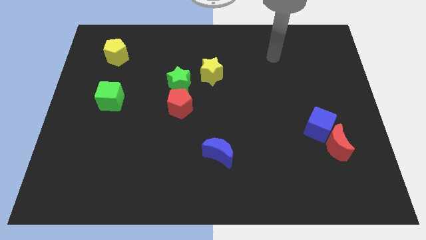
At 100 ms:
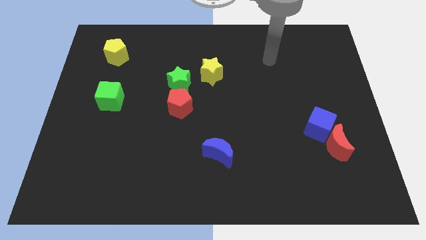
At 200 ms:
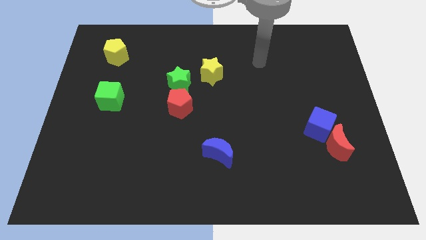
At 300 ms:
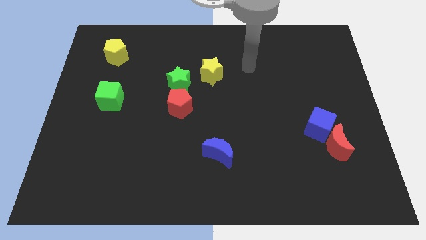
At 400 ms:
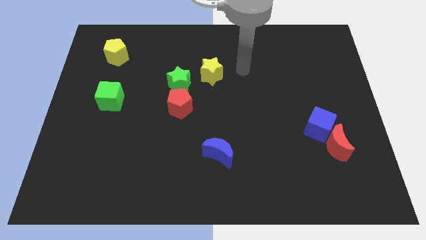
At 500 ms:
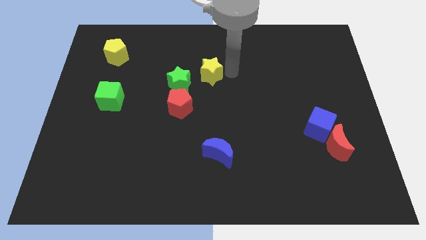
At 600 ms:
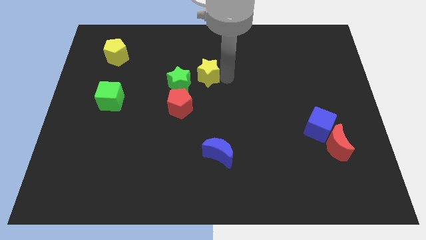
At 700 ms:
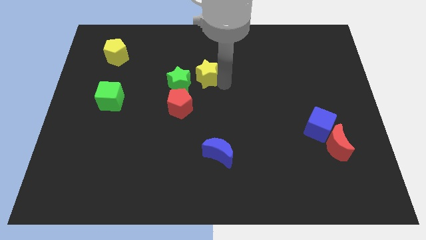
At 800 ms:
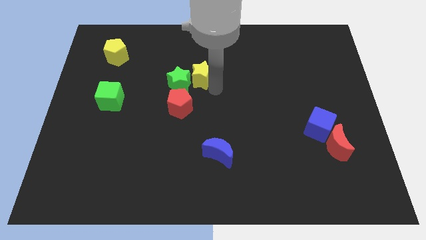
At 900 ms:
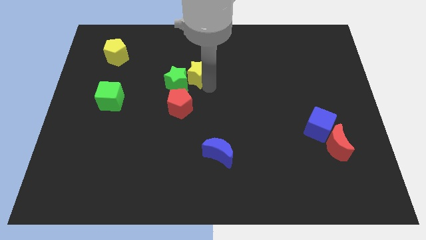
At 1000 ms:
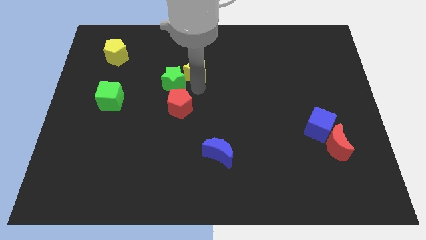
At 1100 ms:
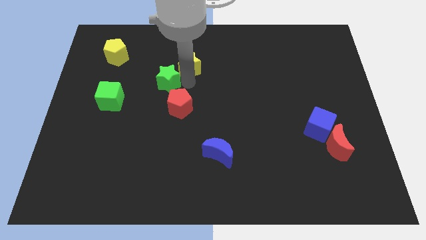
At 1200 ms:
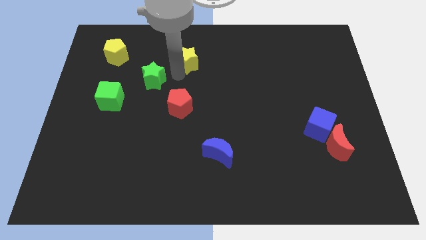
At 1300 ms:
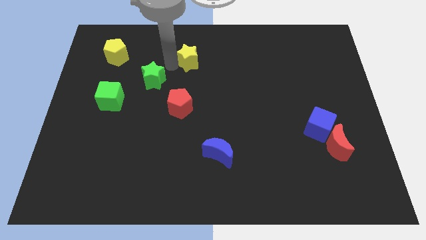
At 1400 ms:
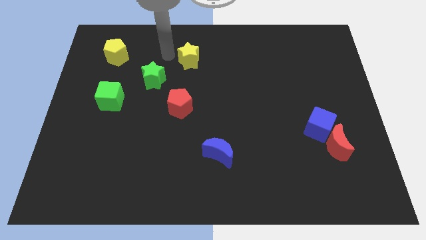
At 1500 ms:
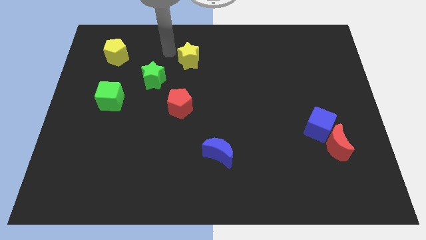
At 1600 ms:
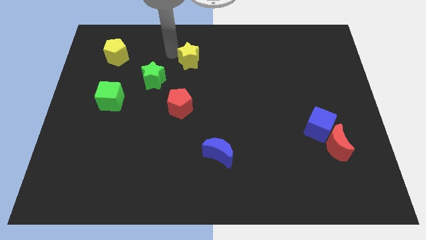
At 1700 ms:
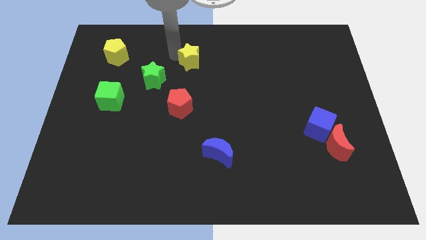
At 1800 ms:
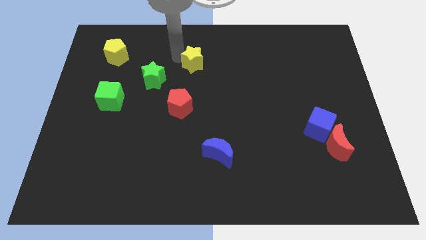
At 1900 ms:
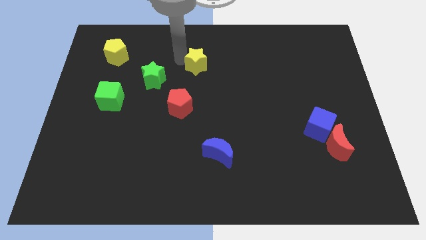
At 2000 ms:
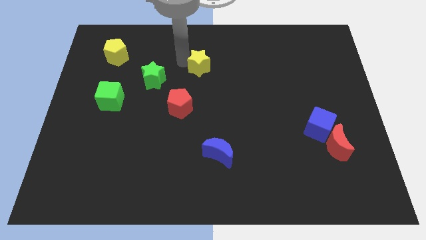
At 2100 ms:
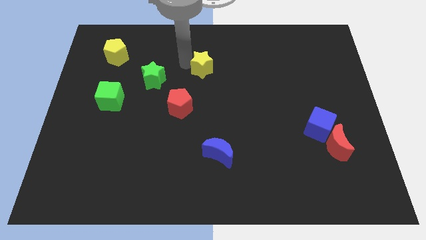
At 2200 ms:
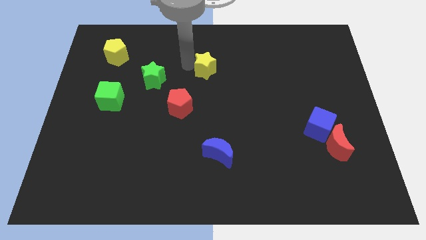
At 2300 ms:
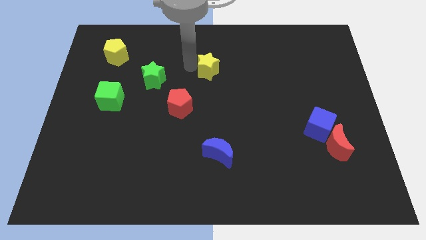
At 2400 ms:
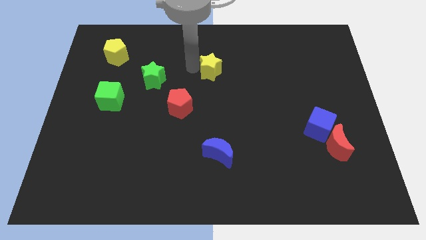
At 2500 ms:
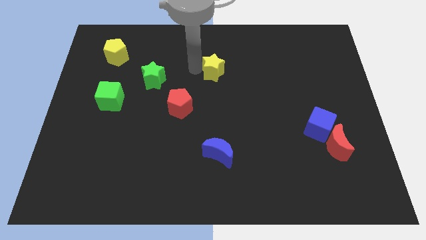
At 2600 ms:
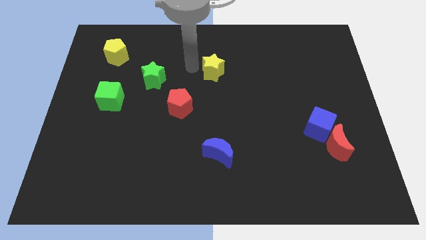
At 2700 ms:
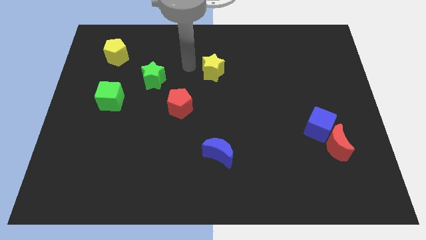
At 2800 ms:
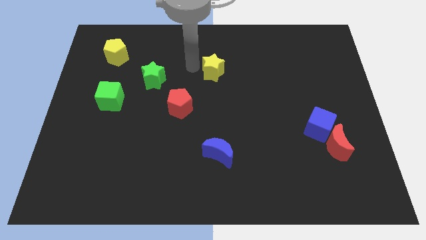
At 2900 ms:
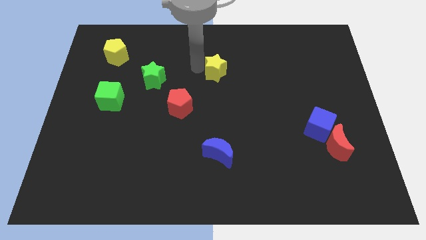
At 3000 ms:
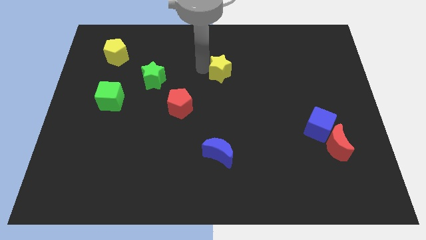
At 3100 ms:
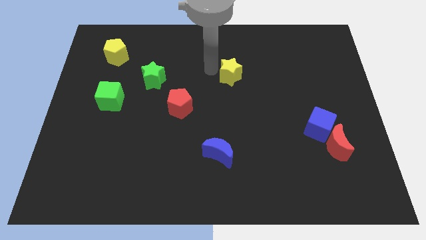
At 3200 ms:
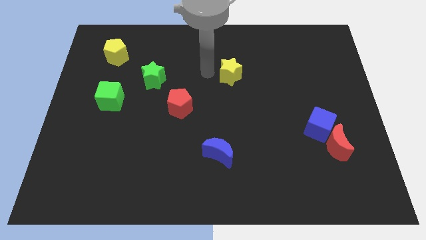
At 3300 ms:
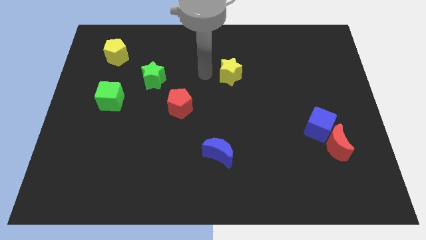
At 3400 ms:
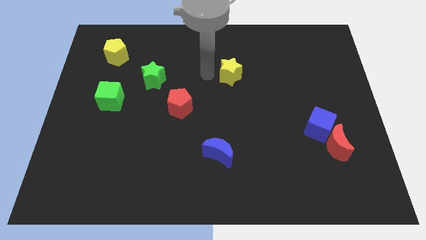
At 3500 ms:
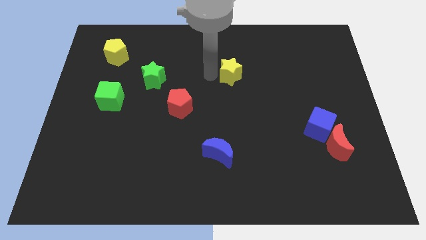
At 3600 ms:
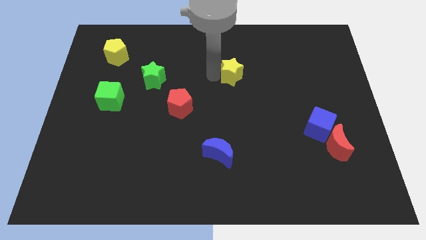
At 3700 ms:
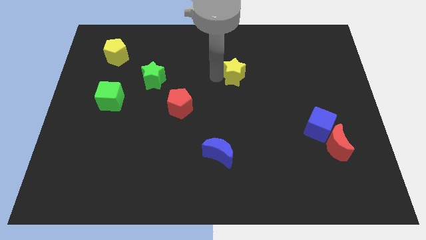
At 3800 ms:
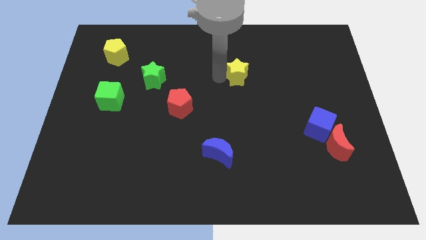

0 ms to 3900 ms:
move the yellow star a little right

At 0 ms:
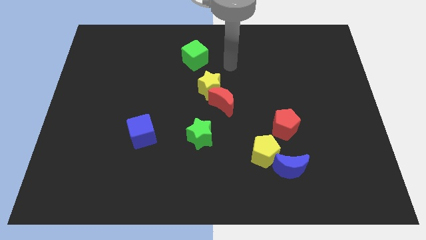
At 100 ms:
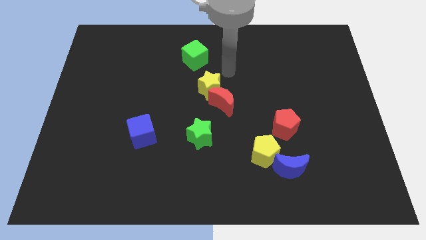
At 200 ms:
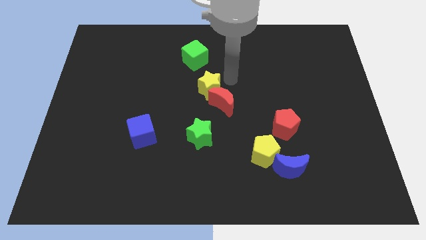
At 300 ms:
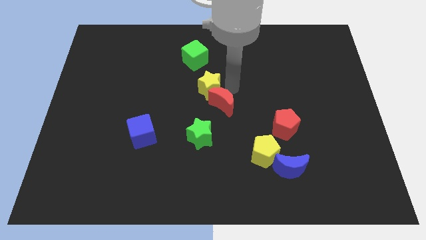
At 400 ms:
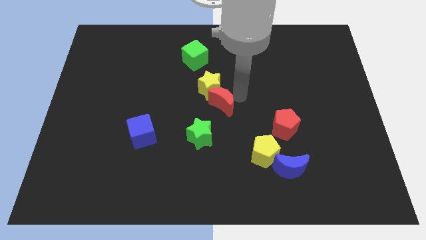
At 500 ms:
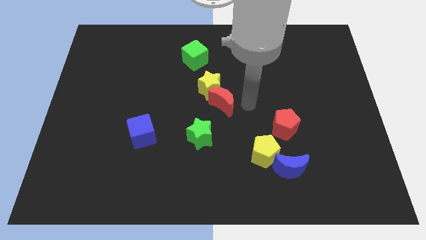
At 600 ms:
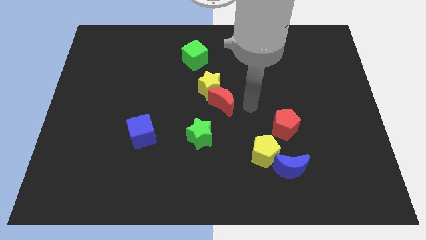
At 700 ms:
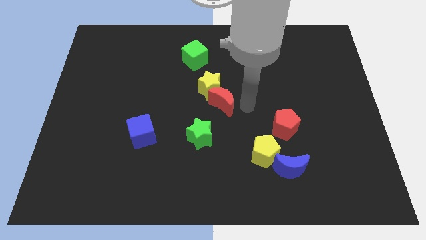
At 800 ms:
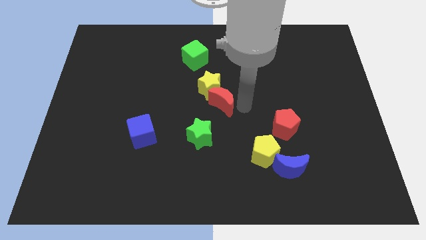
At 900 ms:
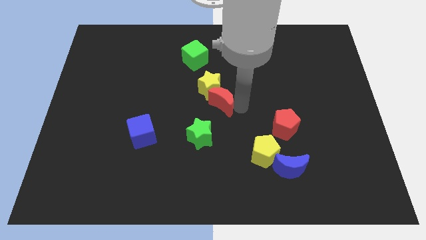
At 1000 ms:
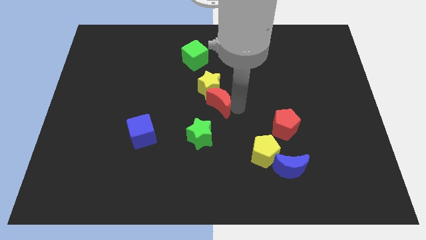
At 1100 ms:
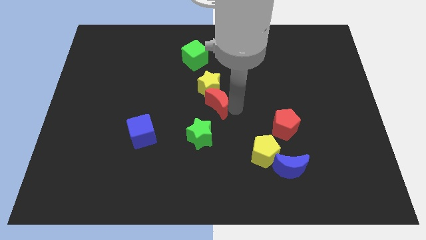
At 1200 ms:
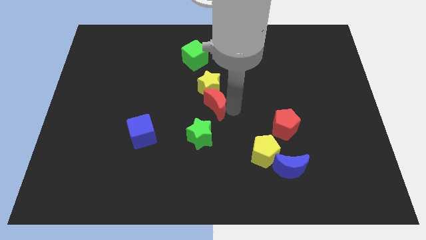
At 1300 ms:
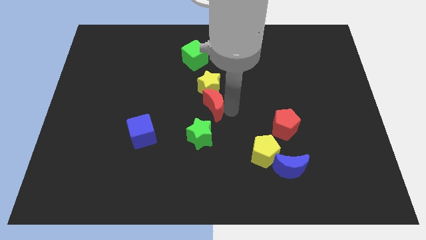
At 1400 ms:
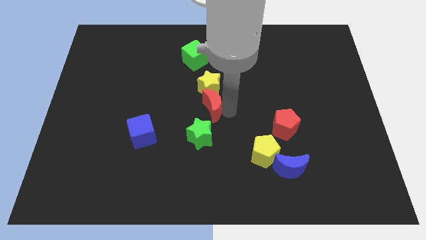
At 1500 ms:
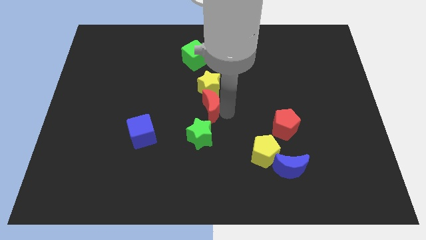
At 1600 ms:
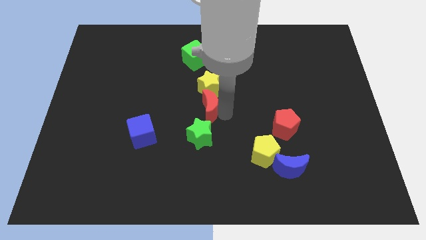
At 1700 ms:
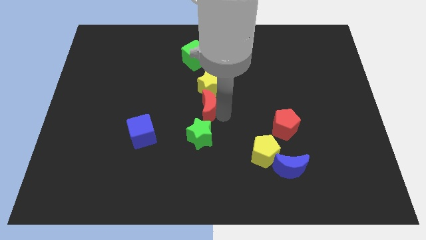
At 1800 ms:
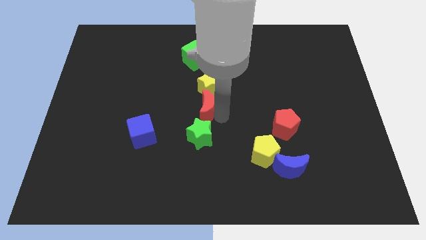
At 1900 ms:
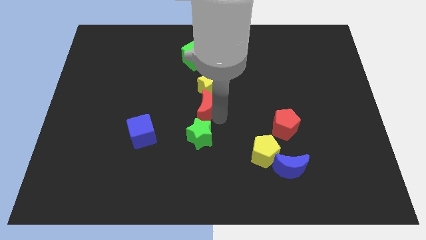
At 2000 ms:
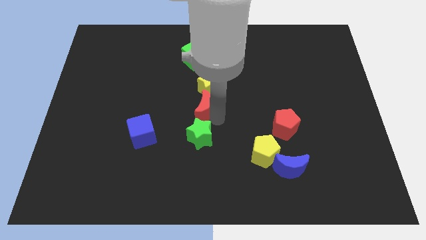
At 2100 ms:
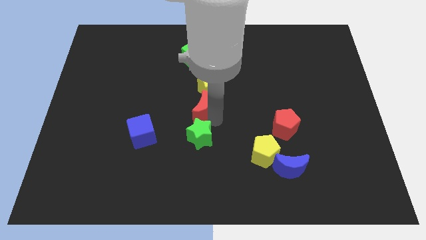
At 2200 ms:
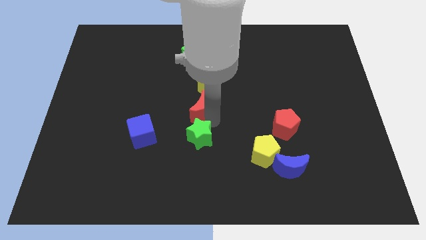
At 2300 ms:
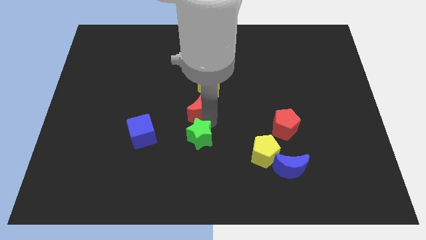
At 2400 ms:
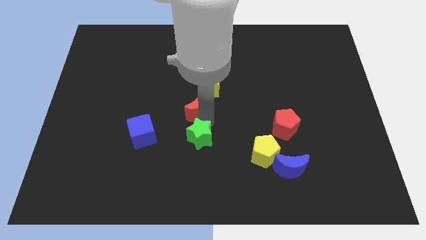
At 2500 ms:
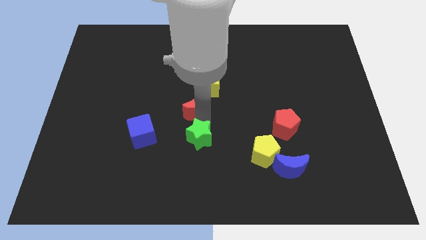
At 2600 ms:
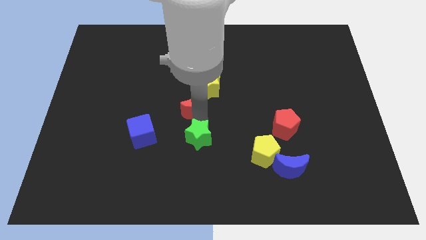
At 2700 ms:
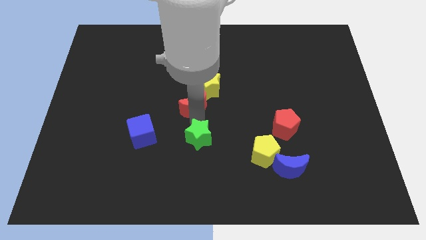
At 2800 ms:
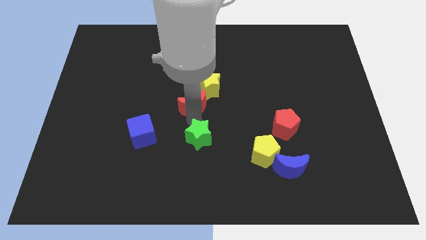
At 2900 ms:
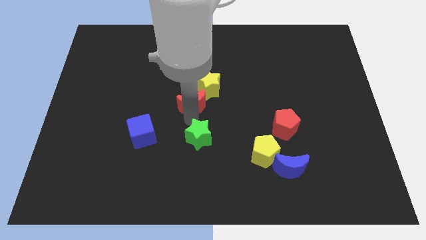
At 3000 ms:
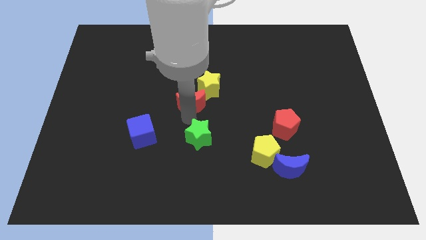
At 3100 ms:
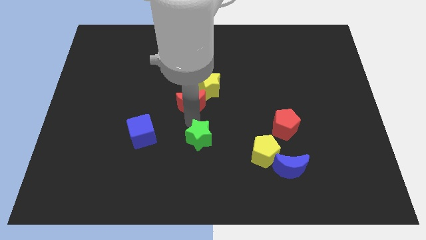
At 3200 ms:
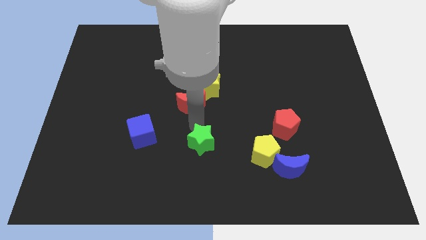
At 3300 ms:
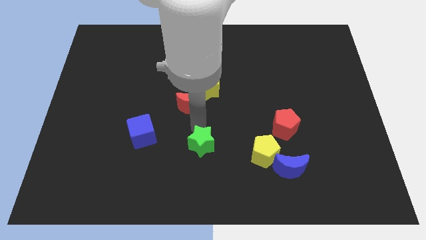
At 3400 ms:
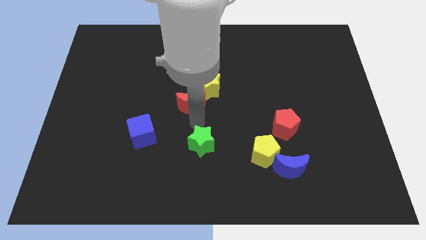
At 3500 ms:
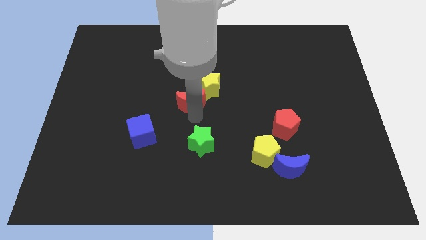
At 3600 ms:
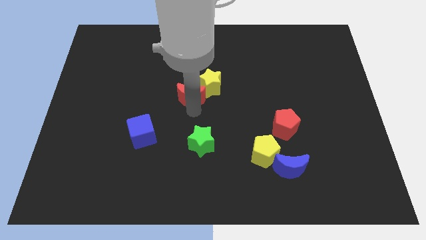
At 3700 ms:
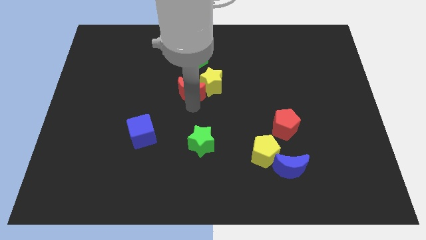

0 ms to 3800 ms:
slide the red moon up and left diagonally a little bit

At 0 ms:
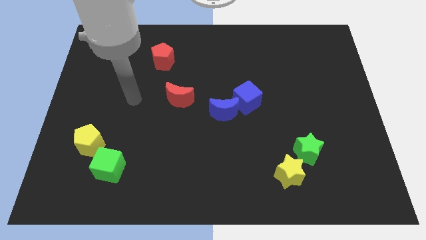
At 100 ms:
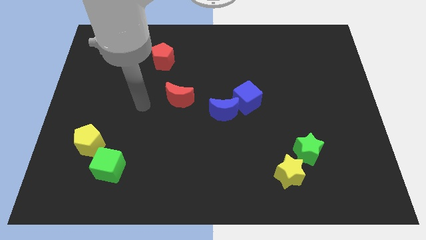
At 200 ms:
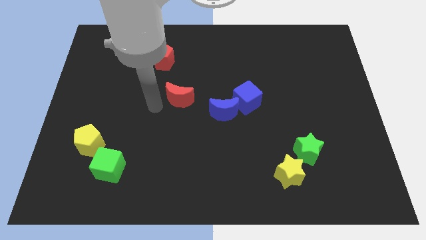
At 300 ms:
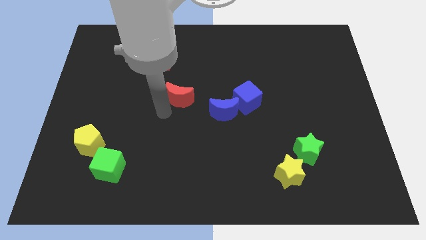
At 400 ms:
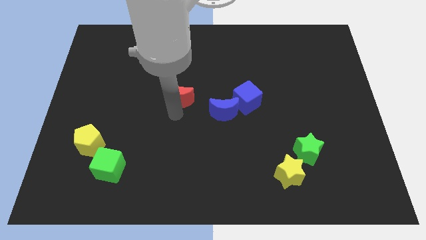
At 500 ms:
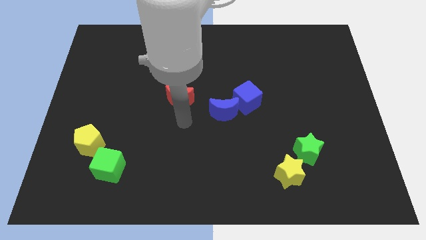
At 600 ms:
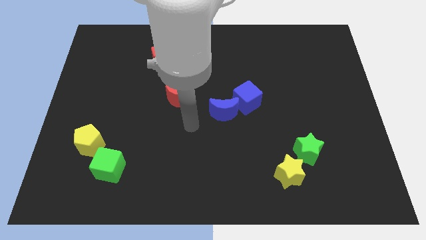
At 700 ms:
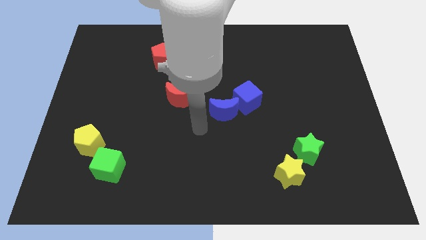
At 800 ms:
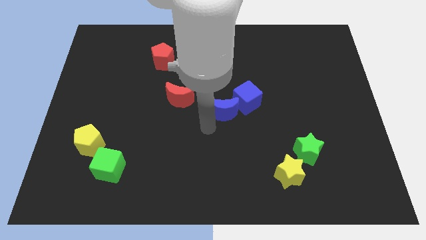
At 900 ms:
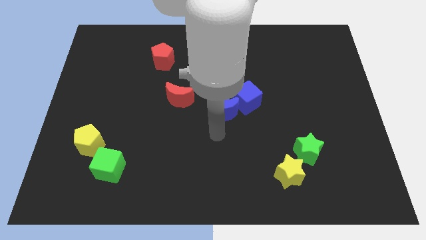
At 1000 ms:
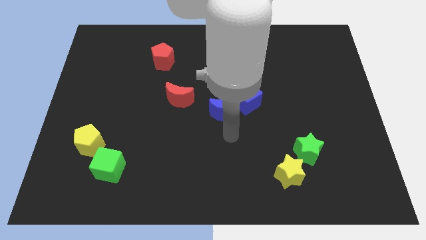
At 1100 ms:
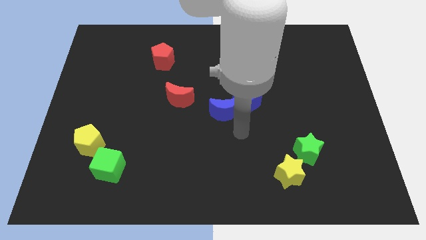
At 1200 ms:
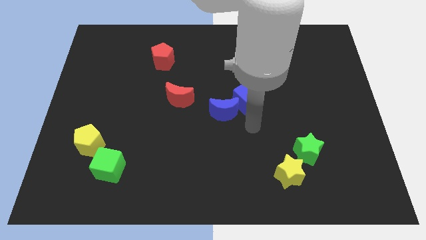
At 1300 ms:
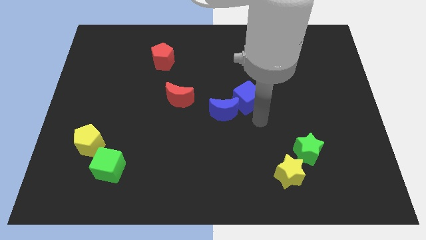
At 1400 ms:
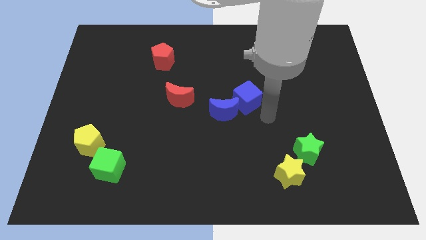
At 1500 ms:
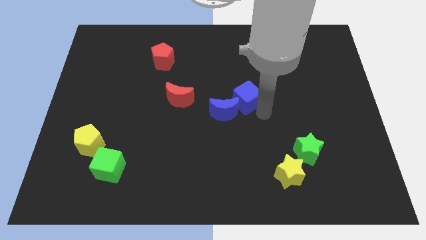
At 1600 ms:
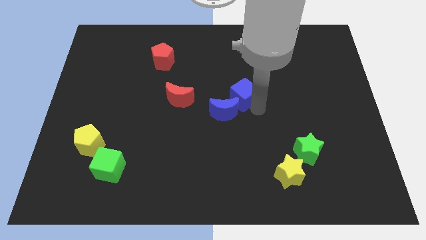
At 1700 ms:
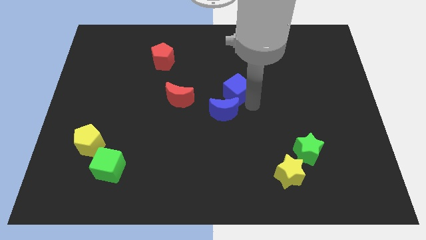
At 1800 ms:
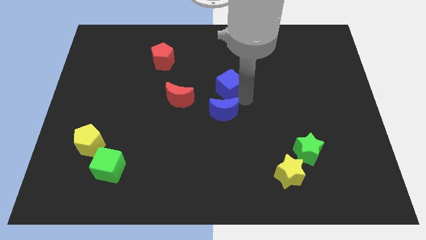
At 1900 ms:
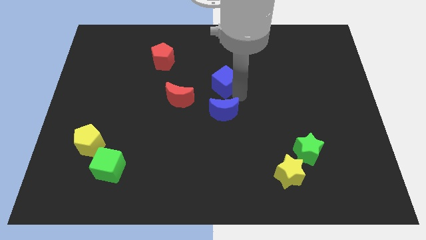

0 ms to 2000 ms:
slide the blue cube somewhat up and left diagonally
